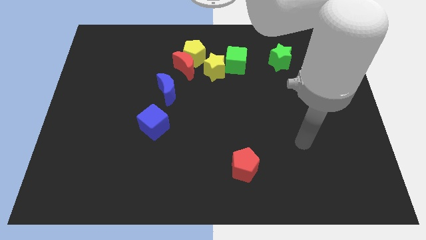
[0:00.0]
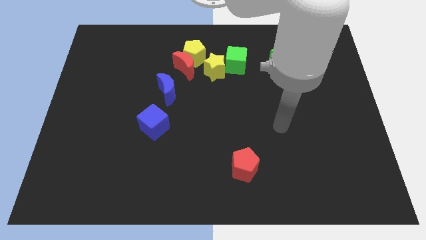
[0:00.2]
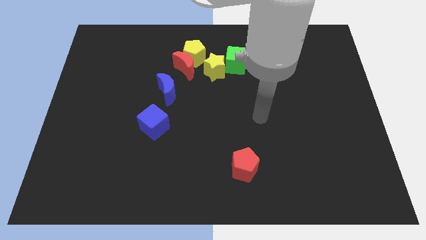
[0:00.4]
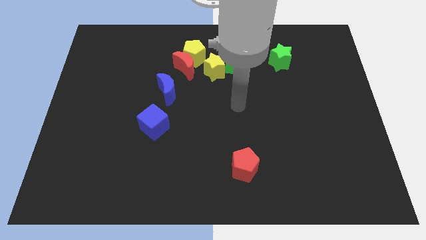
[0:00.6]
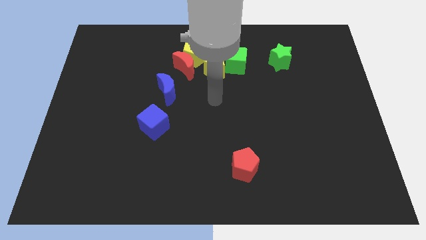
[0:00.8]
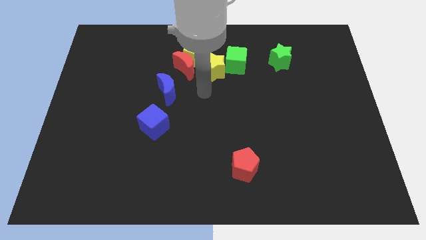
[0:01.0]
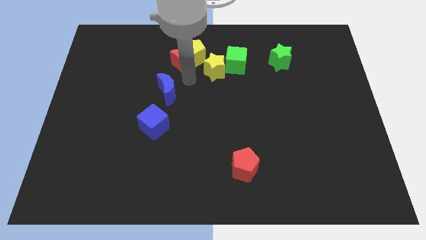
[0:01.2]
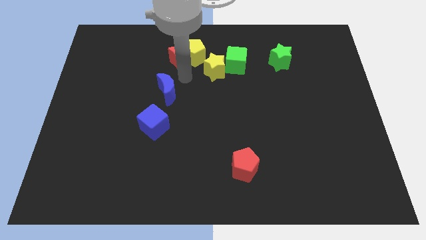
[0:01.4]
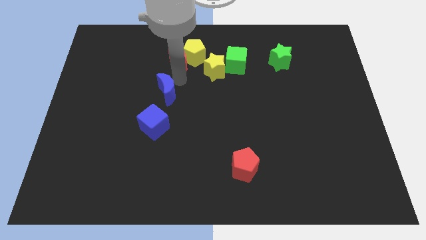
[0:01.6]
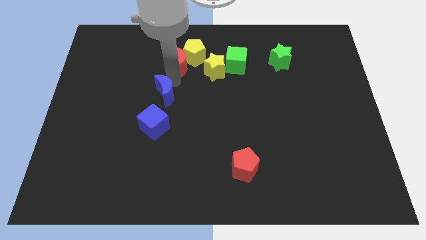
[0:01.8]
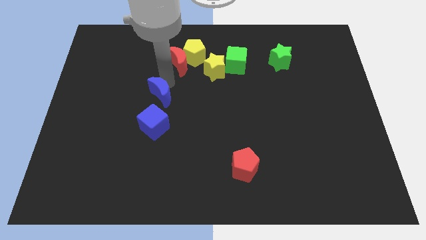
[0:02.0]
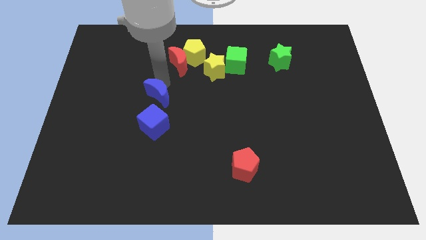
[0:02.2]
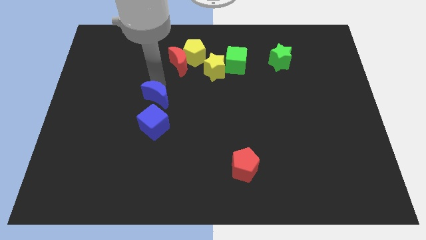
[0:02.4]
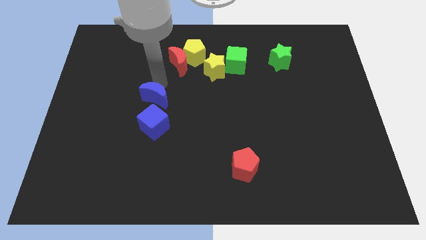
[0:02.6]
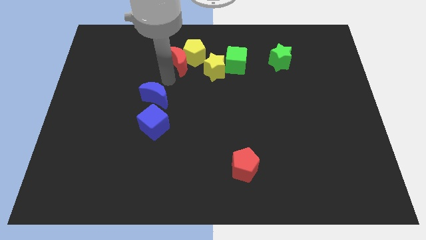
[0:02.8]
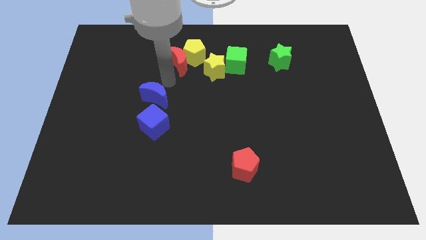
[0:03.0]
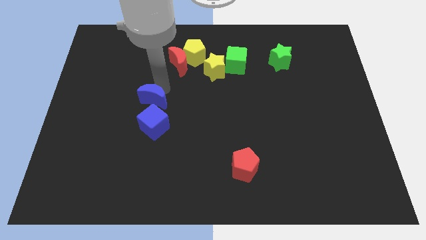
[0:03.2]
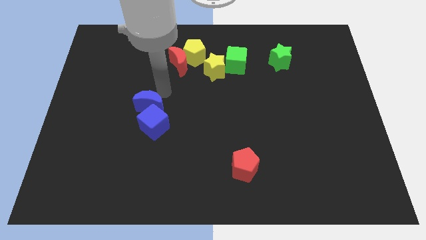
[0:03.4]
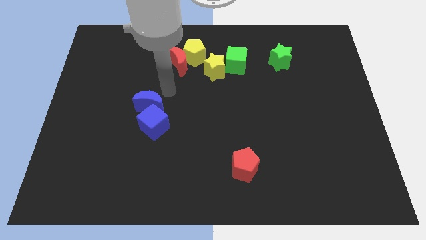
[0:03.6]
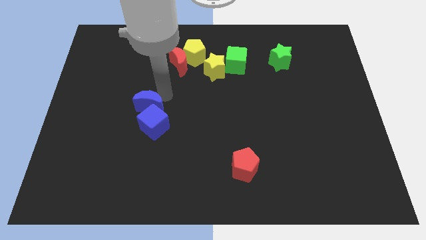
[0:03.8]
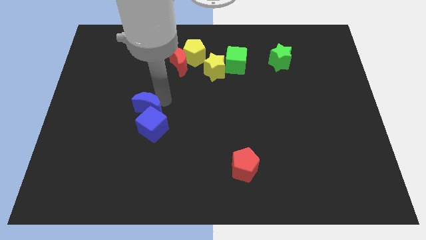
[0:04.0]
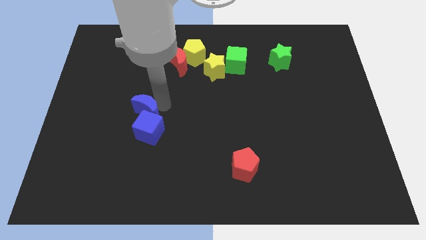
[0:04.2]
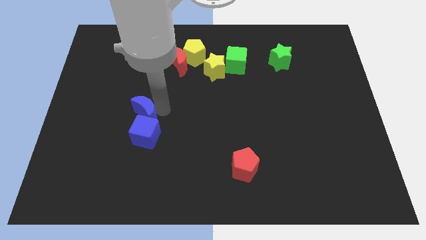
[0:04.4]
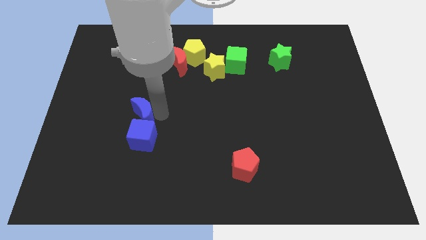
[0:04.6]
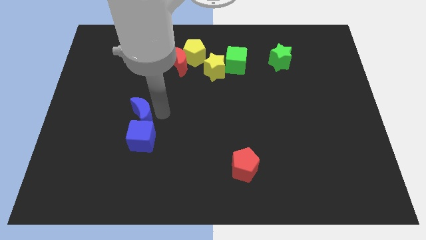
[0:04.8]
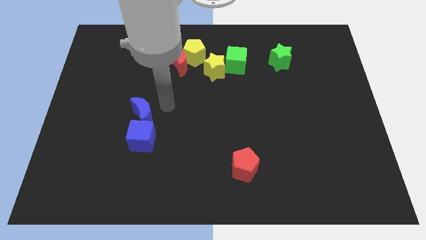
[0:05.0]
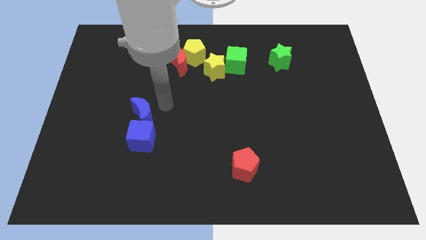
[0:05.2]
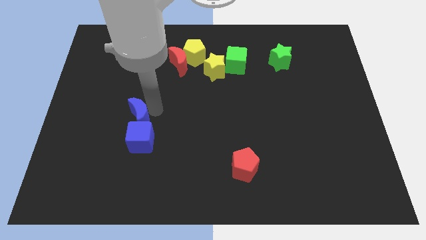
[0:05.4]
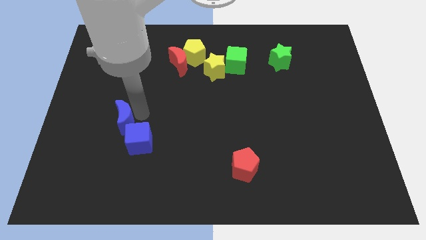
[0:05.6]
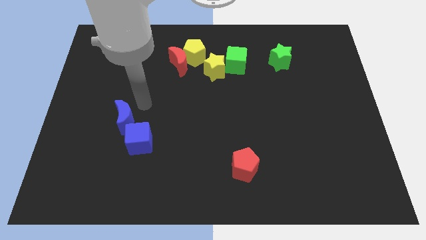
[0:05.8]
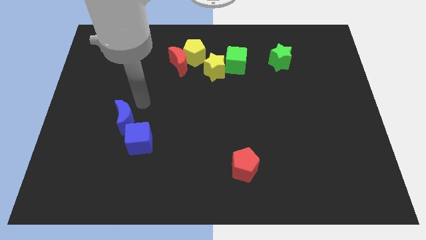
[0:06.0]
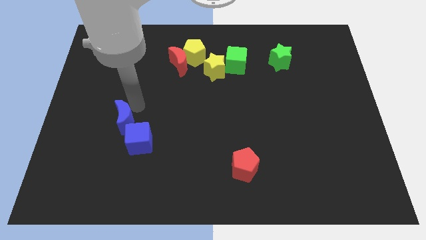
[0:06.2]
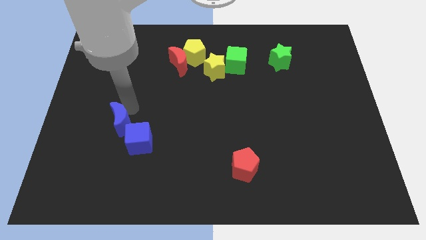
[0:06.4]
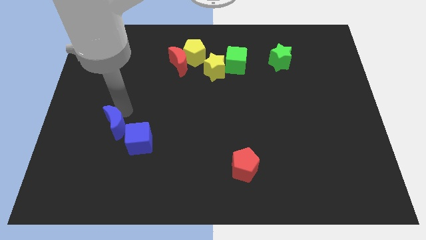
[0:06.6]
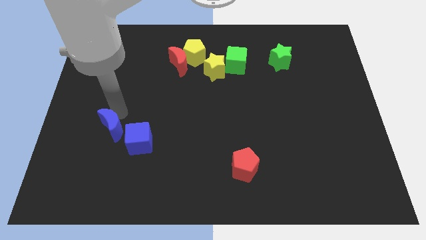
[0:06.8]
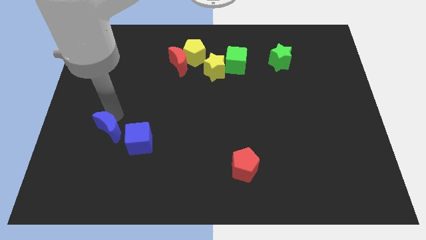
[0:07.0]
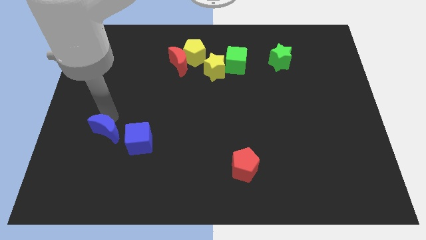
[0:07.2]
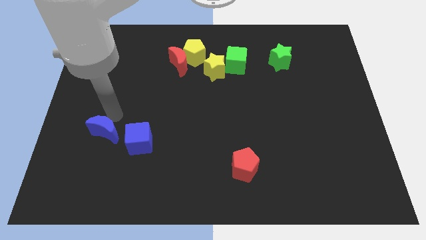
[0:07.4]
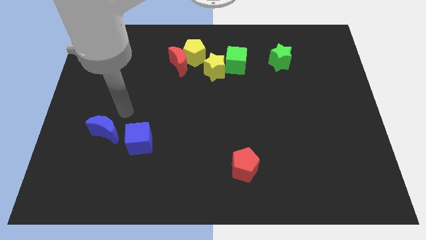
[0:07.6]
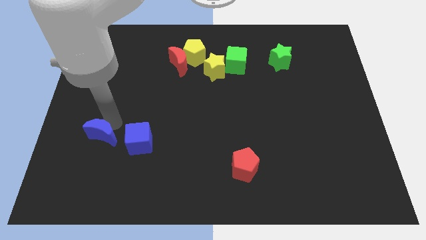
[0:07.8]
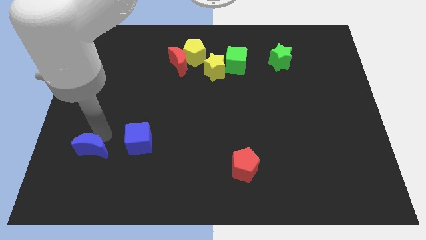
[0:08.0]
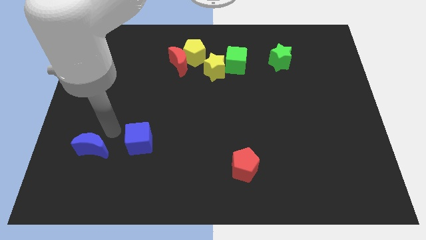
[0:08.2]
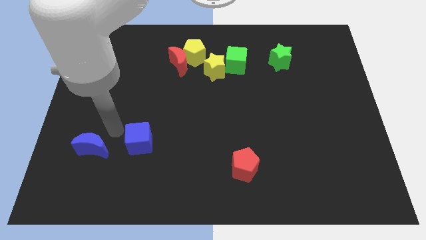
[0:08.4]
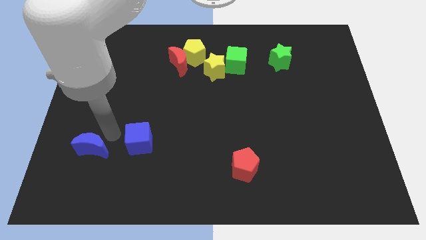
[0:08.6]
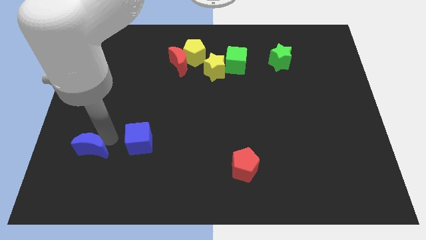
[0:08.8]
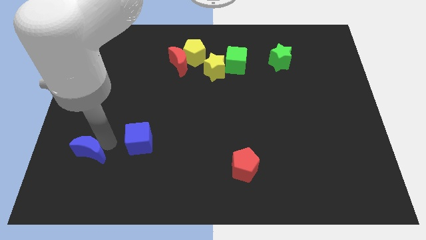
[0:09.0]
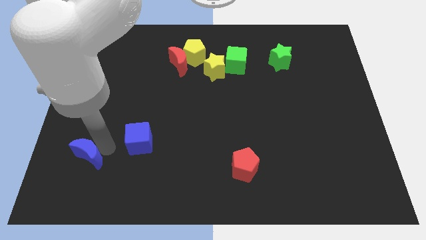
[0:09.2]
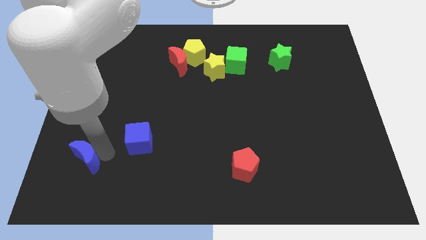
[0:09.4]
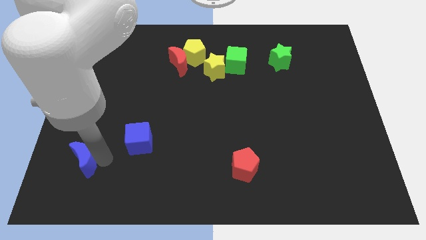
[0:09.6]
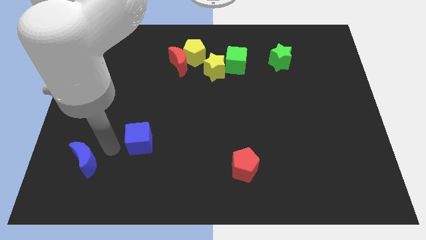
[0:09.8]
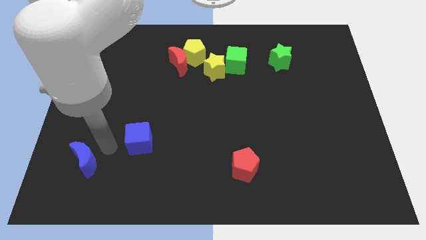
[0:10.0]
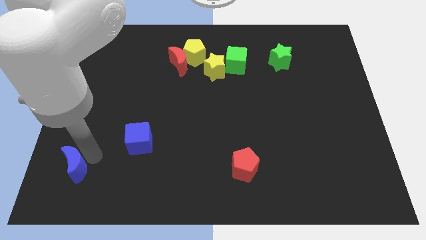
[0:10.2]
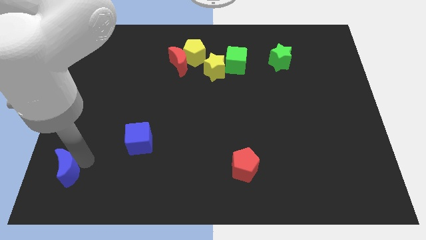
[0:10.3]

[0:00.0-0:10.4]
push the blue moon to the bottom left corner

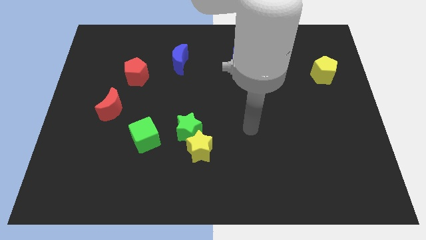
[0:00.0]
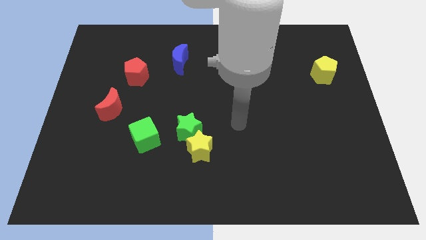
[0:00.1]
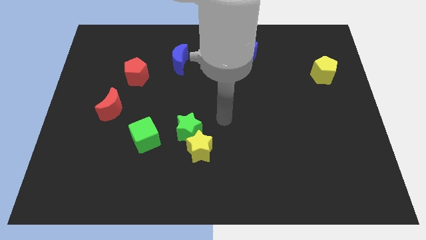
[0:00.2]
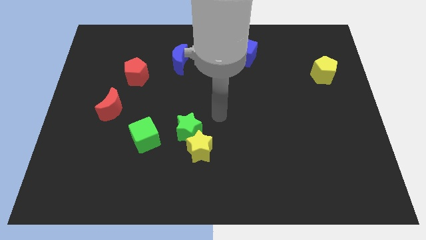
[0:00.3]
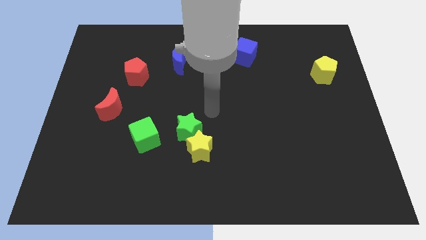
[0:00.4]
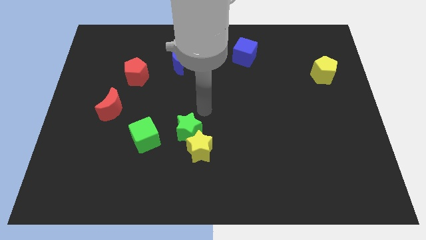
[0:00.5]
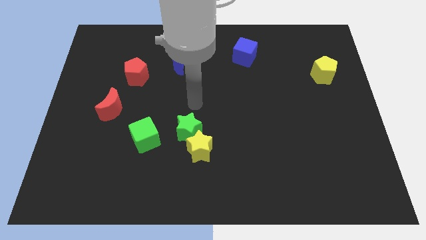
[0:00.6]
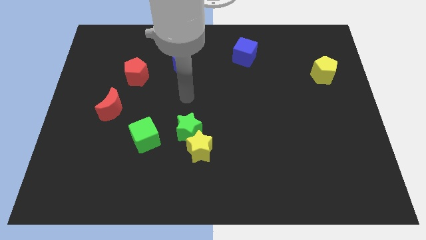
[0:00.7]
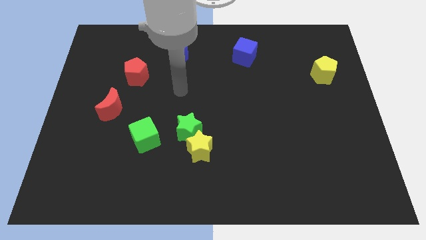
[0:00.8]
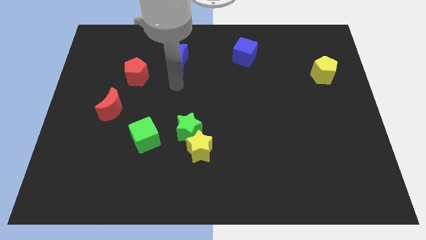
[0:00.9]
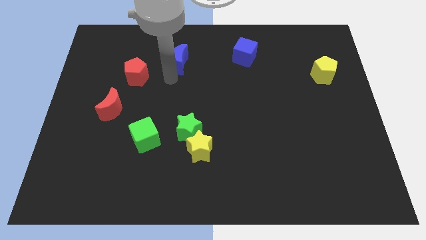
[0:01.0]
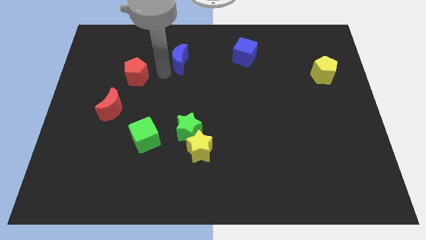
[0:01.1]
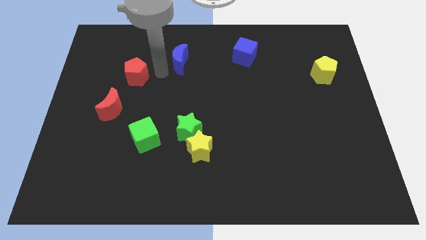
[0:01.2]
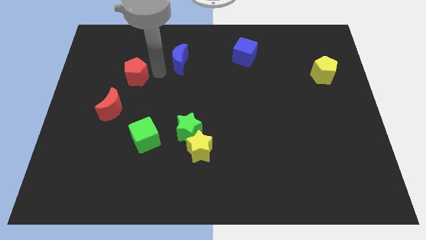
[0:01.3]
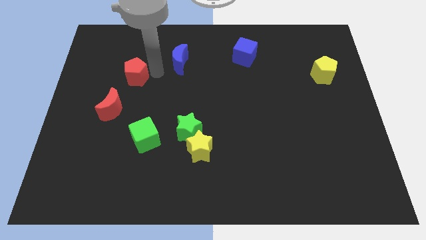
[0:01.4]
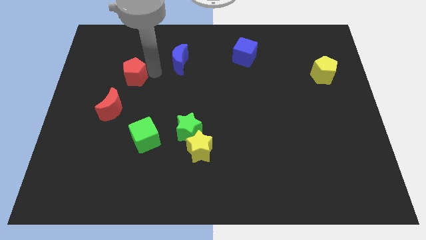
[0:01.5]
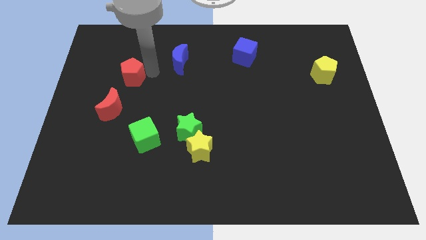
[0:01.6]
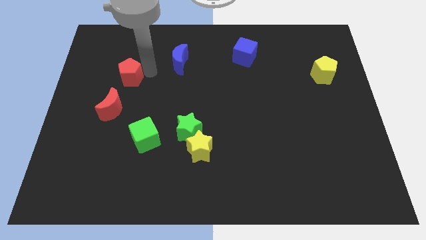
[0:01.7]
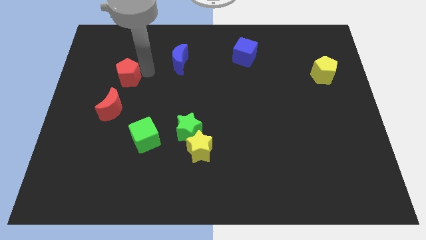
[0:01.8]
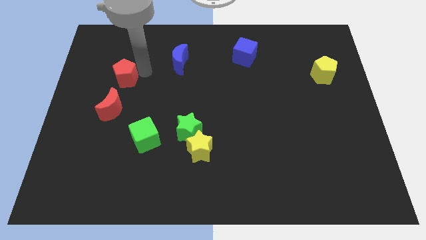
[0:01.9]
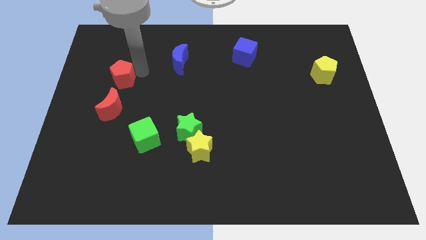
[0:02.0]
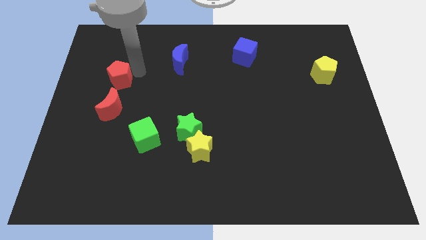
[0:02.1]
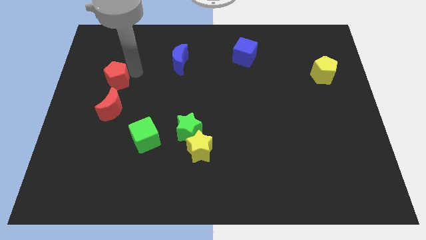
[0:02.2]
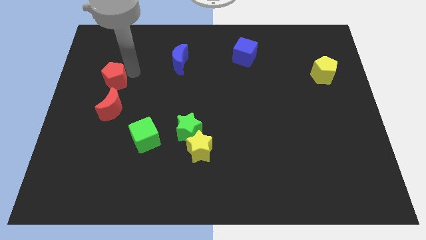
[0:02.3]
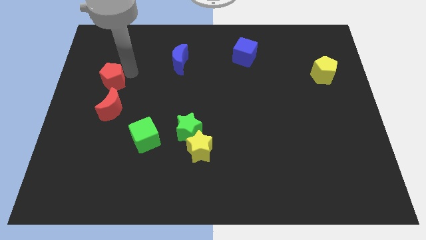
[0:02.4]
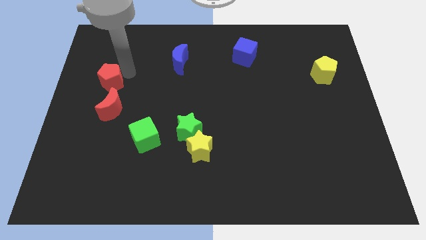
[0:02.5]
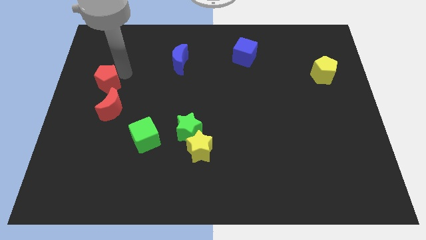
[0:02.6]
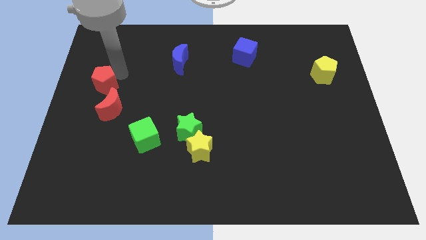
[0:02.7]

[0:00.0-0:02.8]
put the red pentagon to the left side

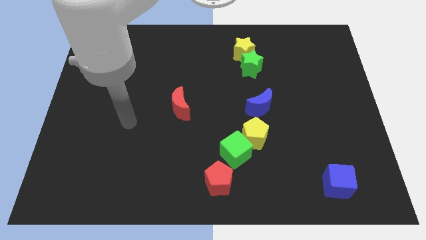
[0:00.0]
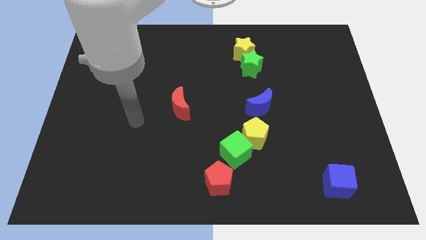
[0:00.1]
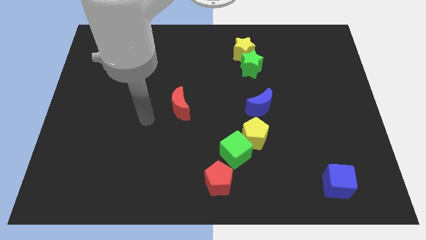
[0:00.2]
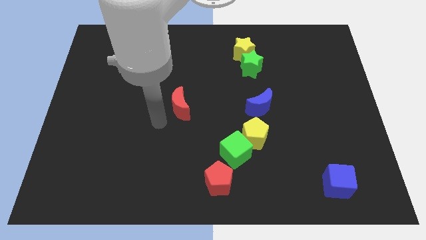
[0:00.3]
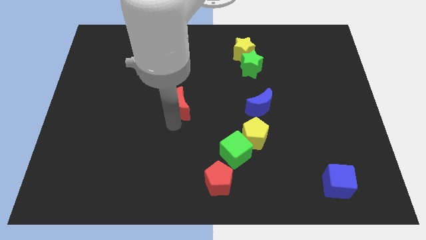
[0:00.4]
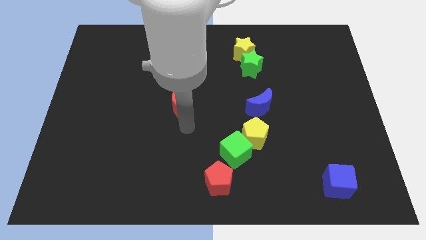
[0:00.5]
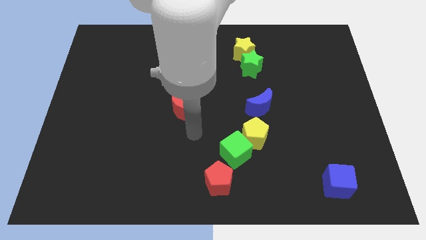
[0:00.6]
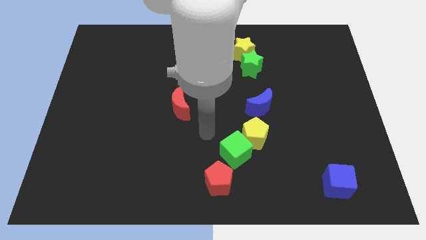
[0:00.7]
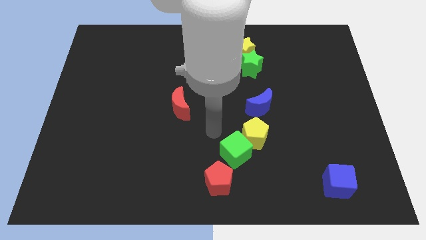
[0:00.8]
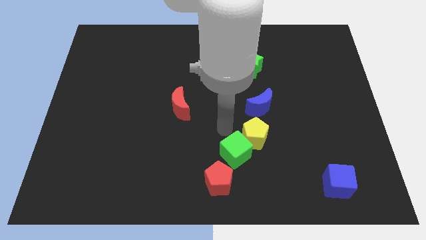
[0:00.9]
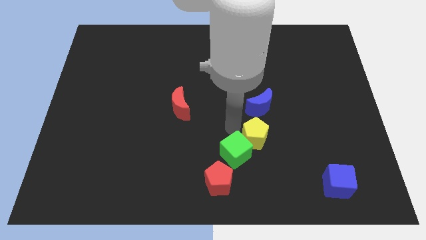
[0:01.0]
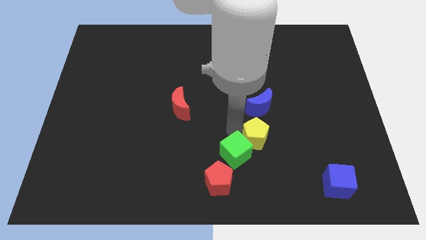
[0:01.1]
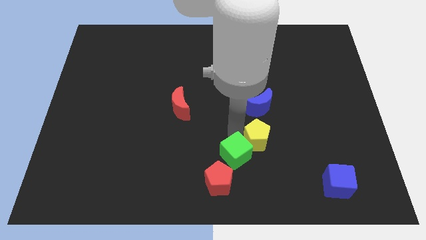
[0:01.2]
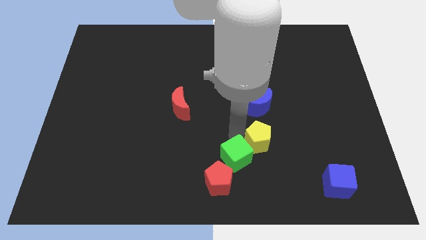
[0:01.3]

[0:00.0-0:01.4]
slide the green cube to the bottom
